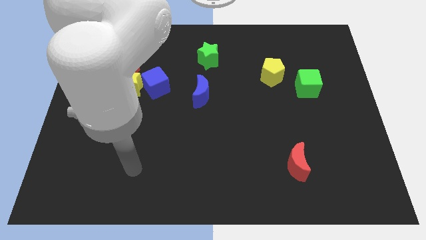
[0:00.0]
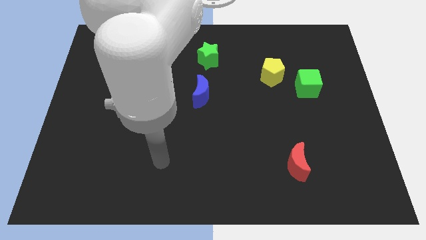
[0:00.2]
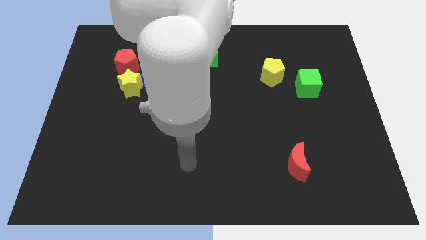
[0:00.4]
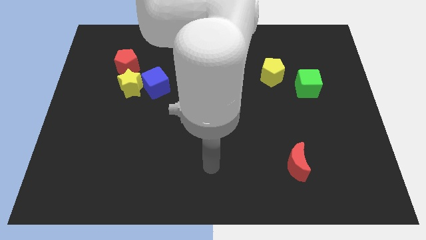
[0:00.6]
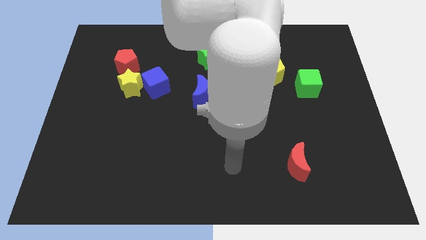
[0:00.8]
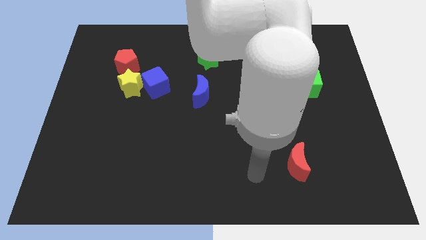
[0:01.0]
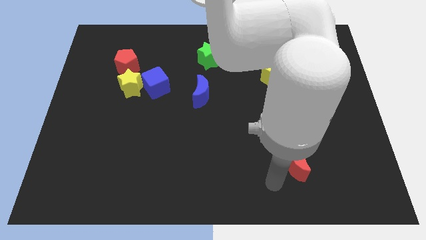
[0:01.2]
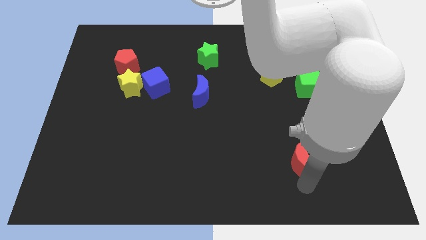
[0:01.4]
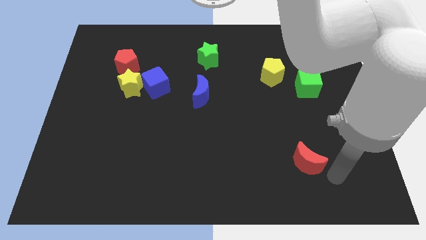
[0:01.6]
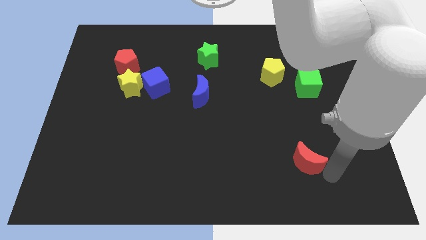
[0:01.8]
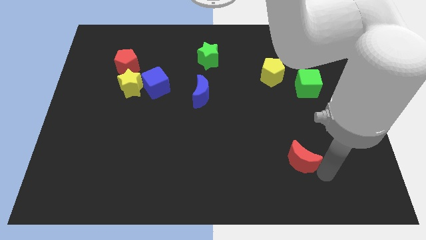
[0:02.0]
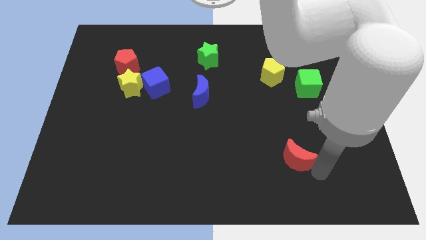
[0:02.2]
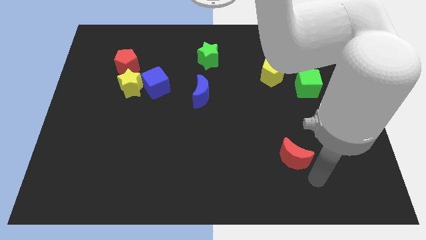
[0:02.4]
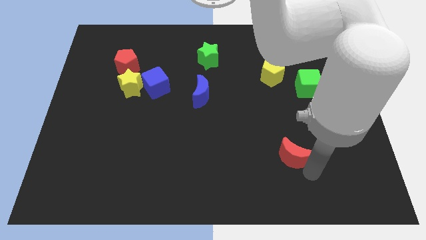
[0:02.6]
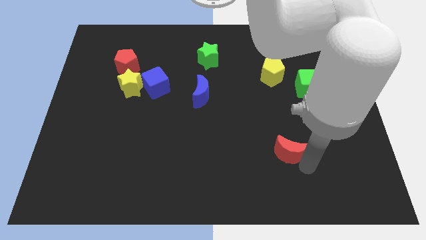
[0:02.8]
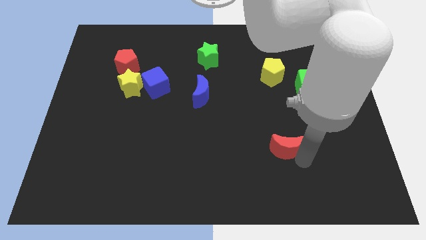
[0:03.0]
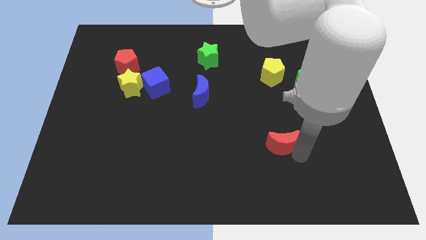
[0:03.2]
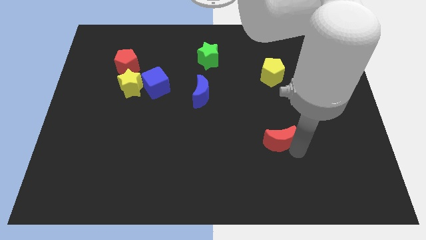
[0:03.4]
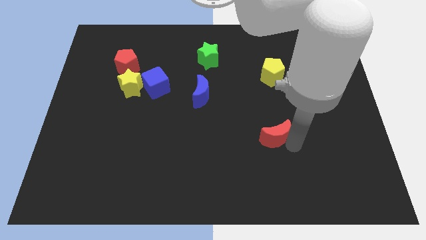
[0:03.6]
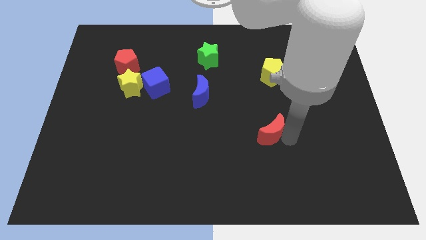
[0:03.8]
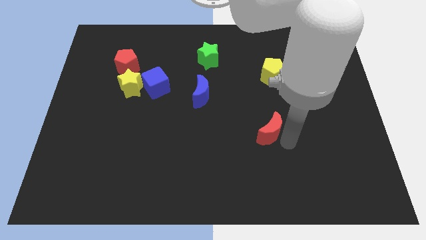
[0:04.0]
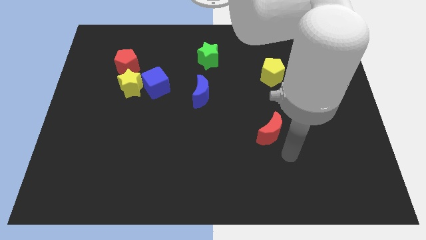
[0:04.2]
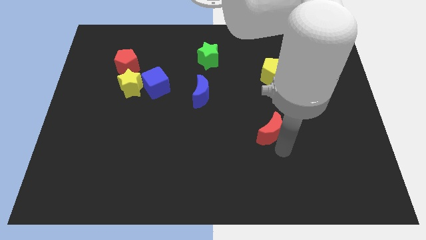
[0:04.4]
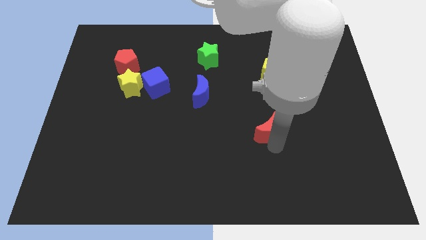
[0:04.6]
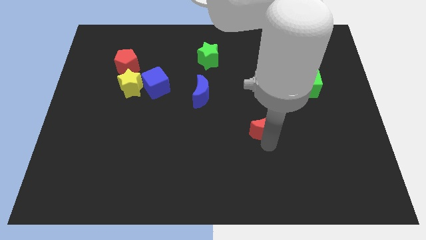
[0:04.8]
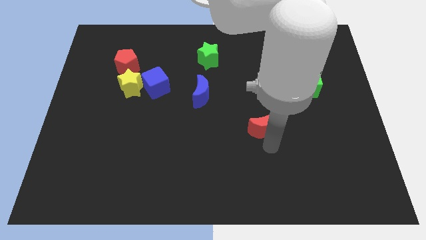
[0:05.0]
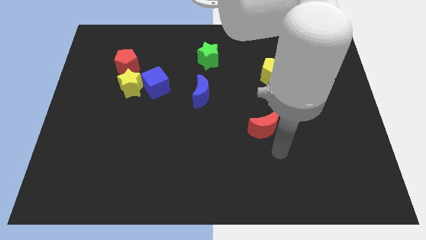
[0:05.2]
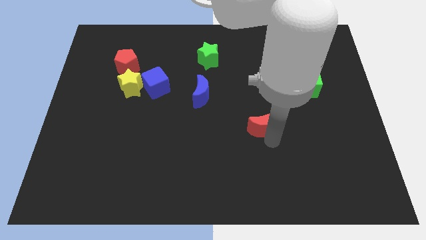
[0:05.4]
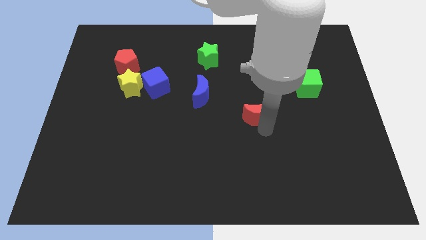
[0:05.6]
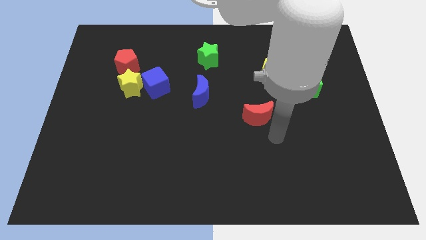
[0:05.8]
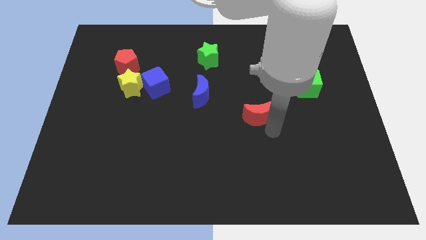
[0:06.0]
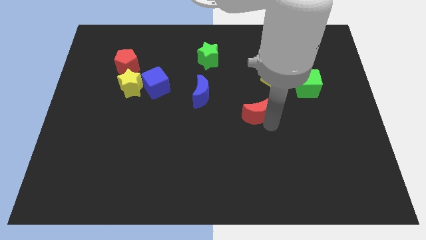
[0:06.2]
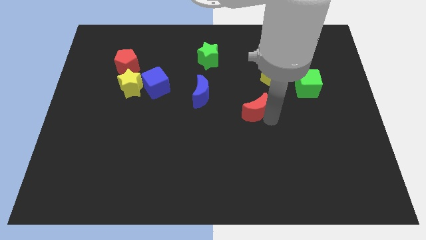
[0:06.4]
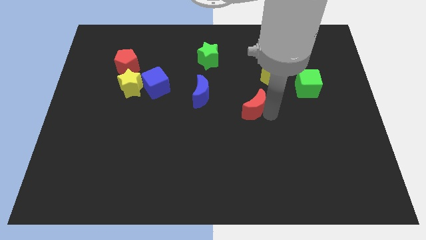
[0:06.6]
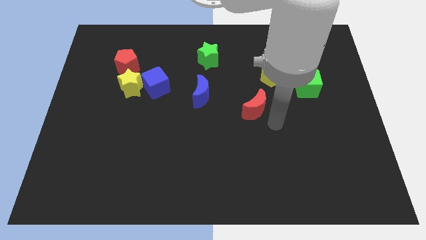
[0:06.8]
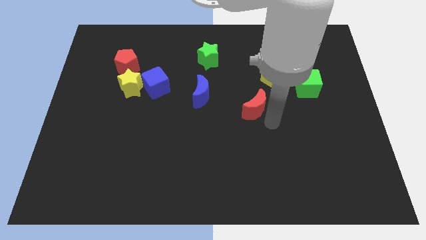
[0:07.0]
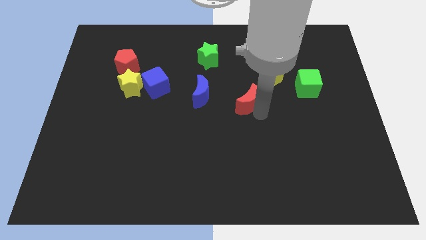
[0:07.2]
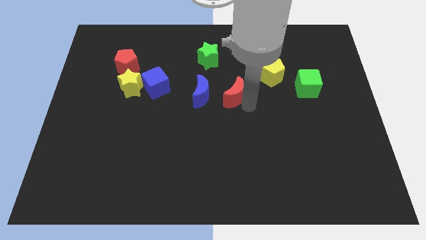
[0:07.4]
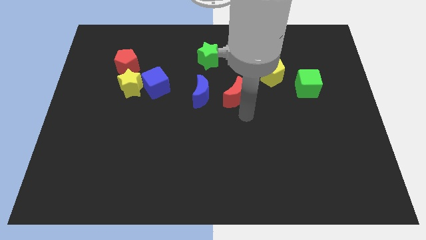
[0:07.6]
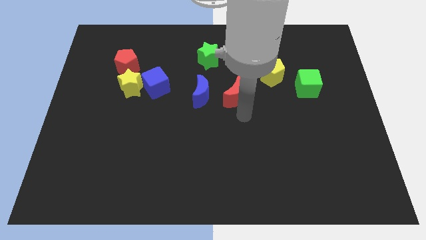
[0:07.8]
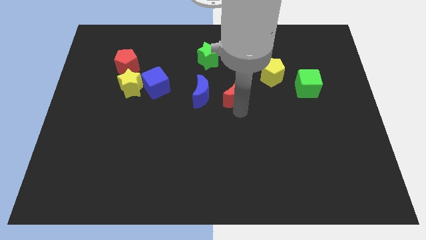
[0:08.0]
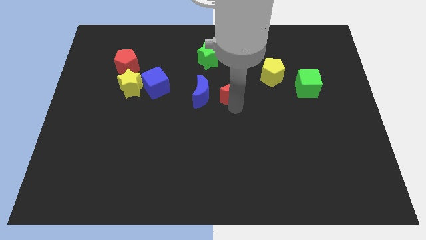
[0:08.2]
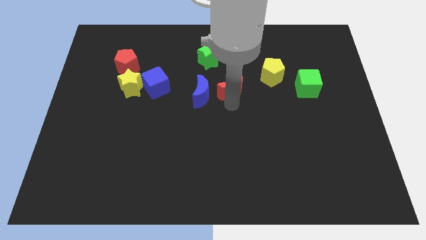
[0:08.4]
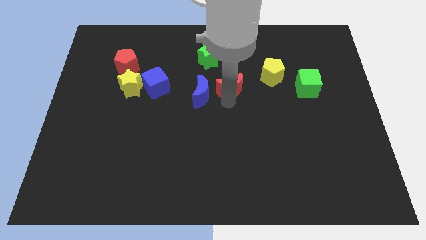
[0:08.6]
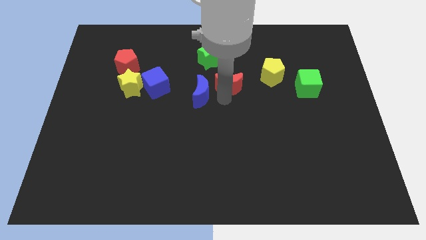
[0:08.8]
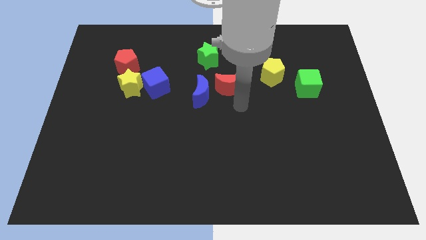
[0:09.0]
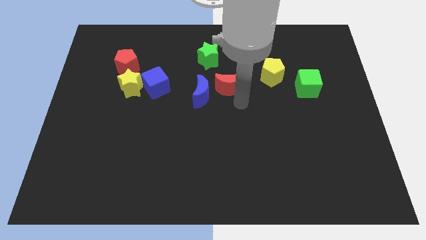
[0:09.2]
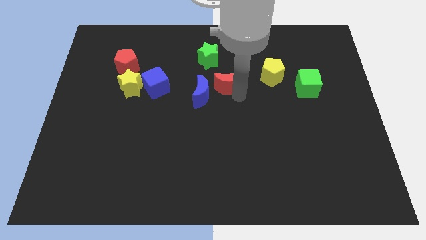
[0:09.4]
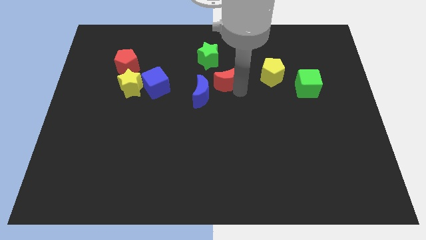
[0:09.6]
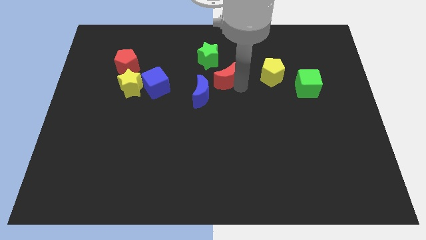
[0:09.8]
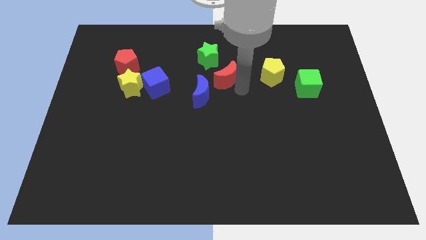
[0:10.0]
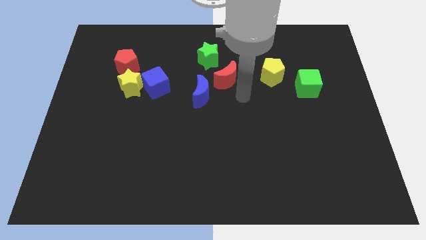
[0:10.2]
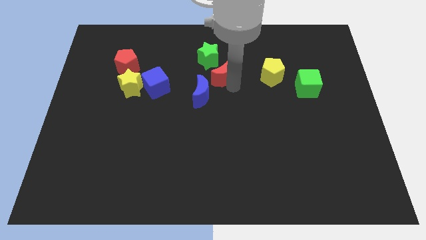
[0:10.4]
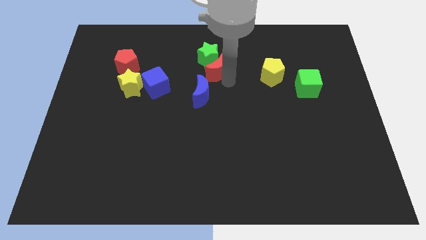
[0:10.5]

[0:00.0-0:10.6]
put the red moon to the green star

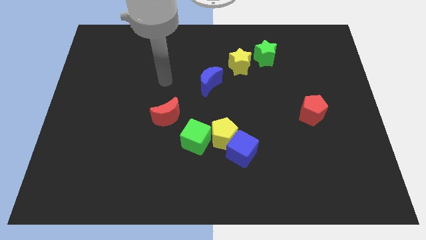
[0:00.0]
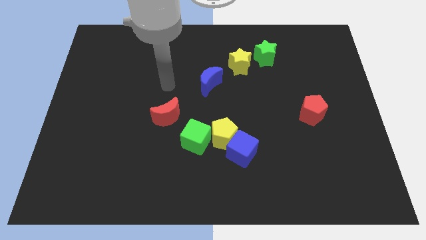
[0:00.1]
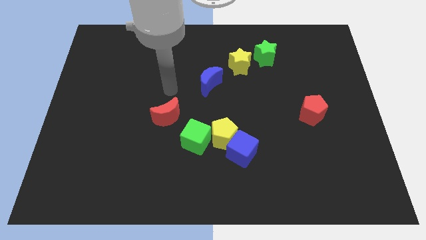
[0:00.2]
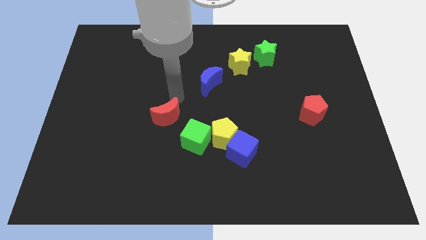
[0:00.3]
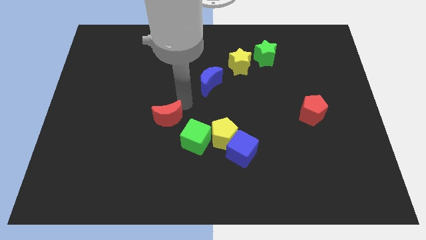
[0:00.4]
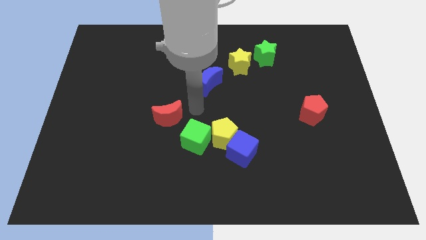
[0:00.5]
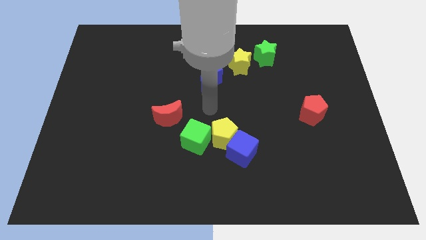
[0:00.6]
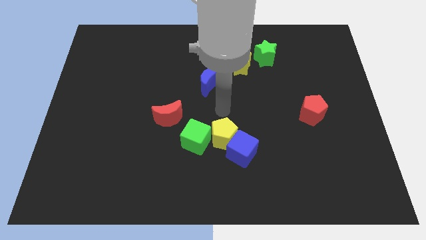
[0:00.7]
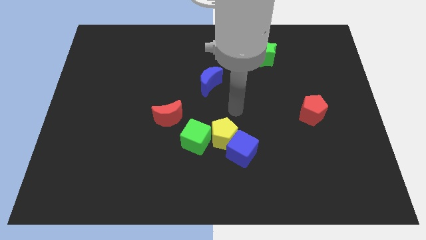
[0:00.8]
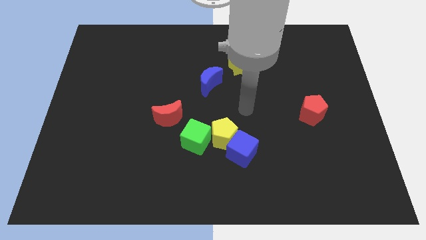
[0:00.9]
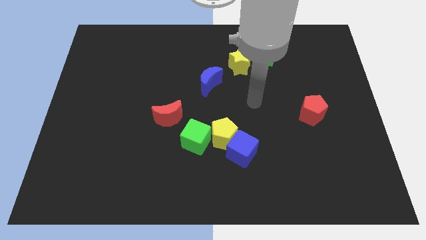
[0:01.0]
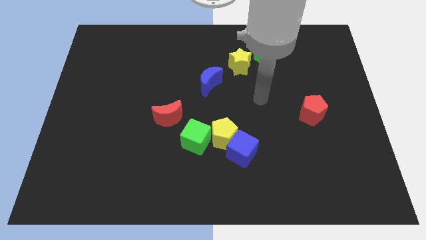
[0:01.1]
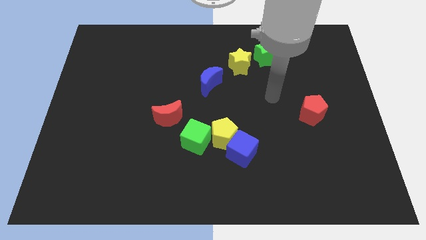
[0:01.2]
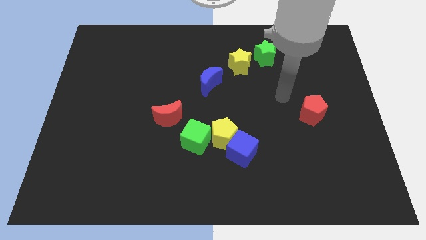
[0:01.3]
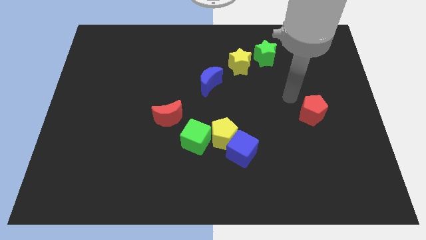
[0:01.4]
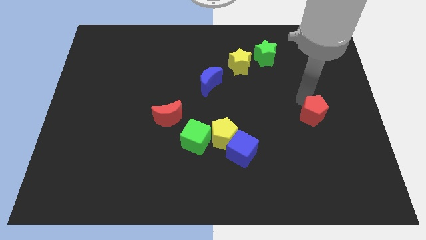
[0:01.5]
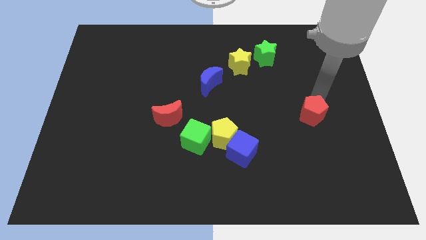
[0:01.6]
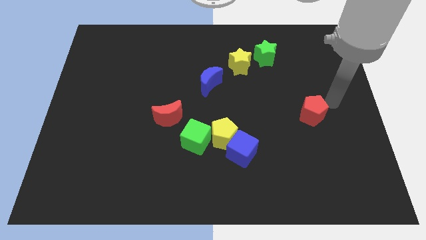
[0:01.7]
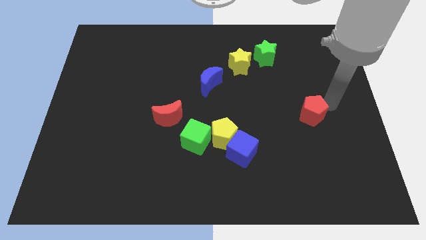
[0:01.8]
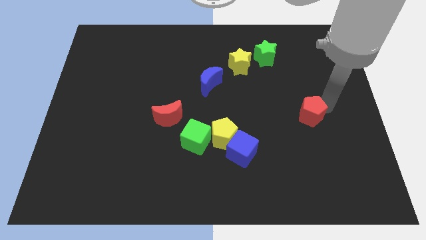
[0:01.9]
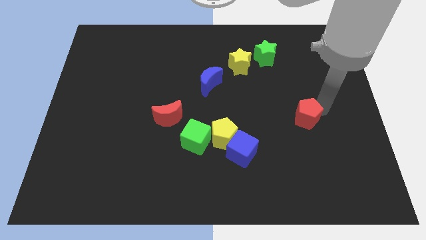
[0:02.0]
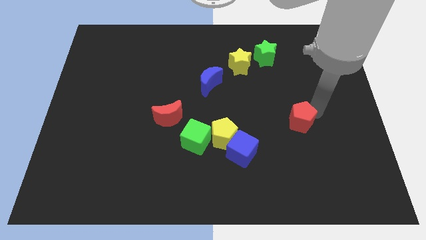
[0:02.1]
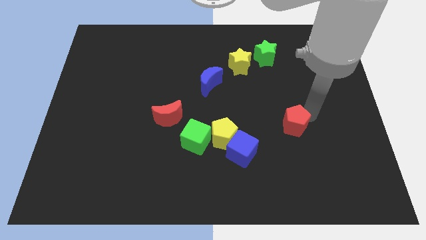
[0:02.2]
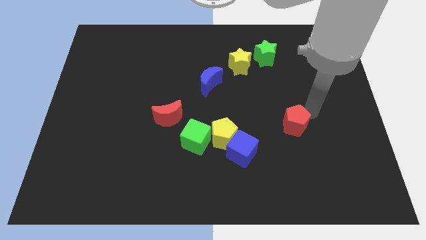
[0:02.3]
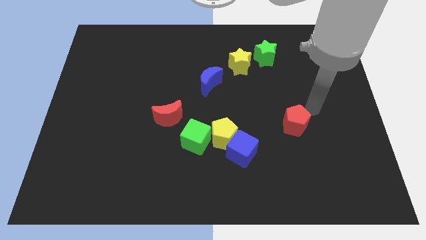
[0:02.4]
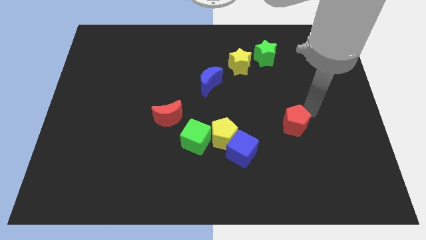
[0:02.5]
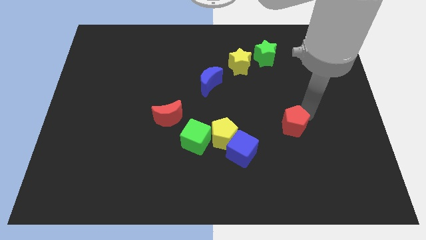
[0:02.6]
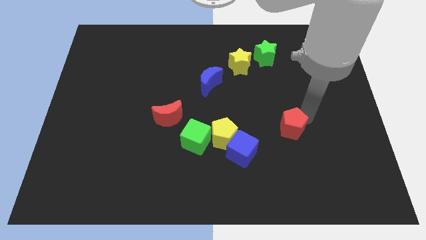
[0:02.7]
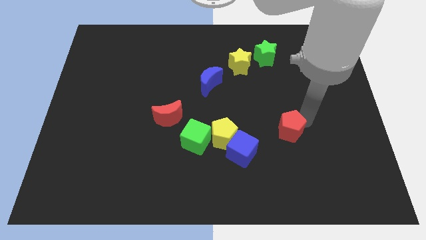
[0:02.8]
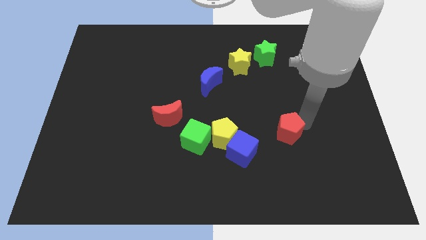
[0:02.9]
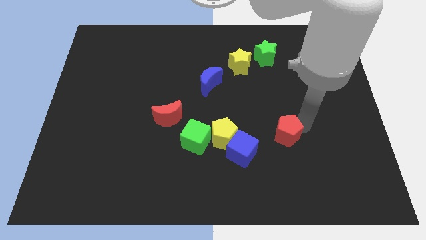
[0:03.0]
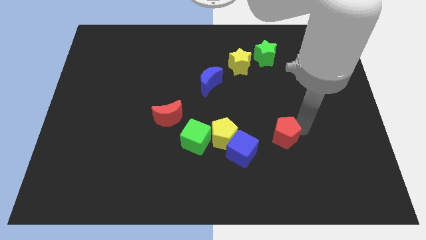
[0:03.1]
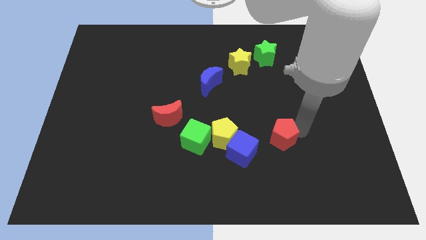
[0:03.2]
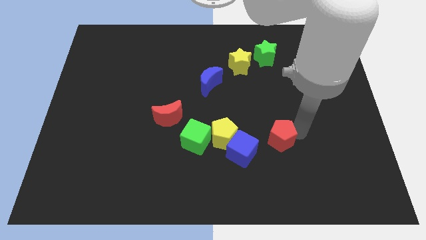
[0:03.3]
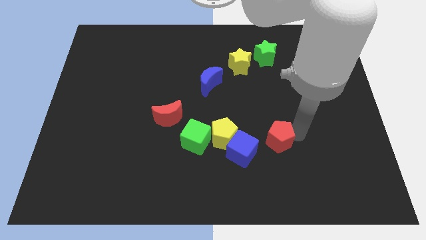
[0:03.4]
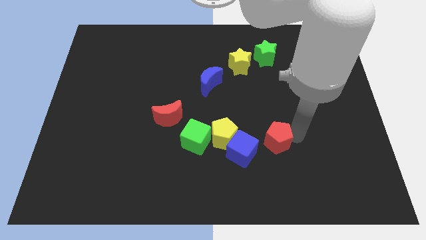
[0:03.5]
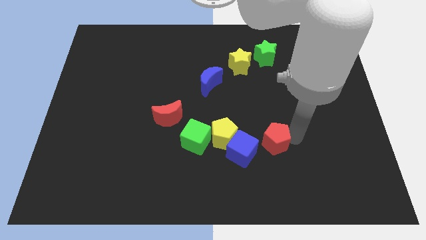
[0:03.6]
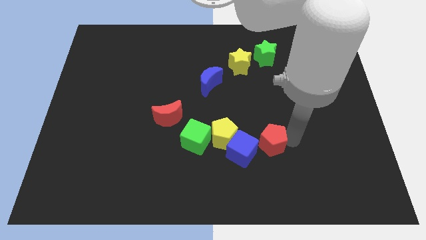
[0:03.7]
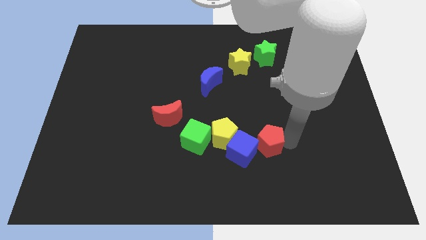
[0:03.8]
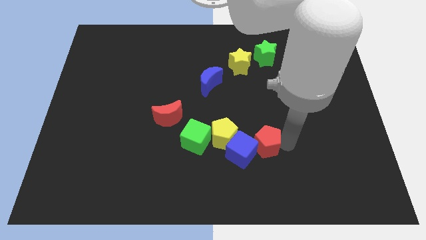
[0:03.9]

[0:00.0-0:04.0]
slide the red pentagon next to the blue cube
